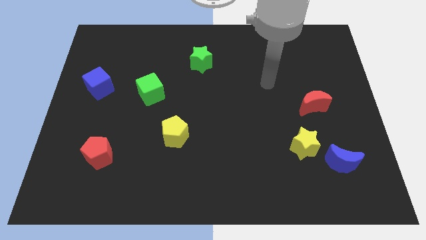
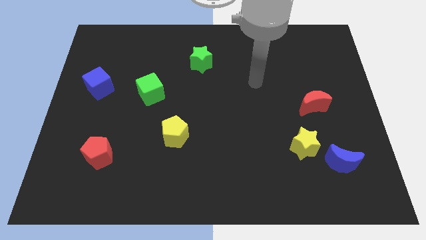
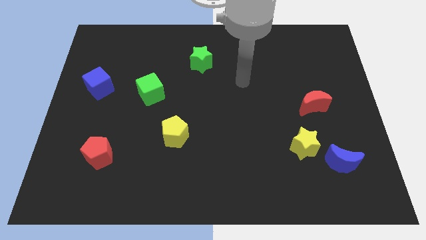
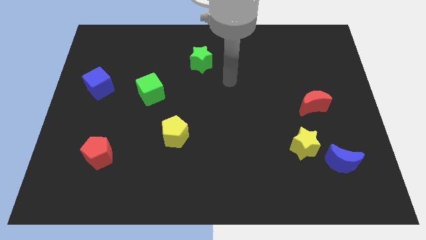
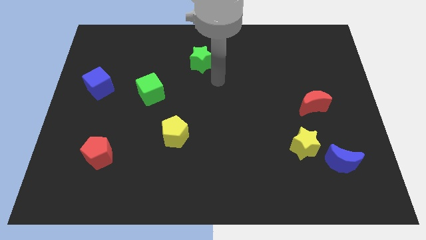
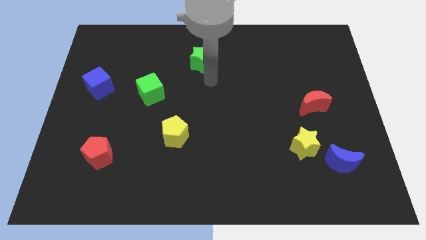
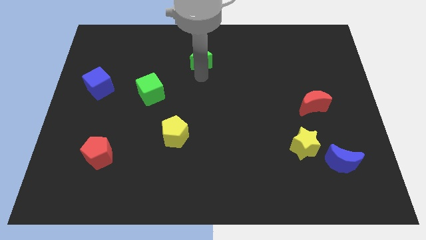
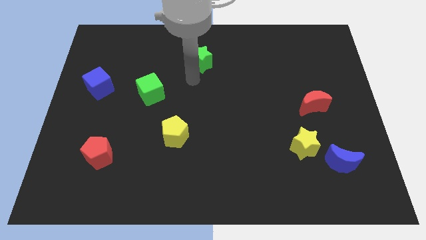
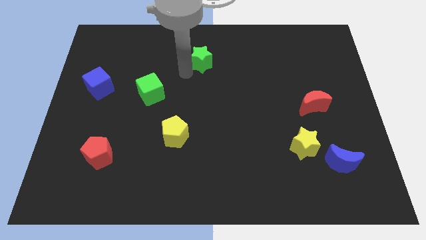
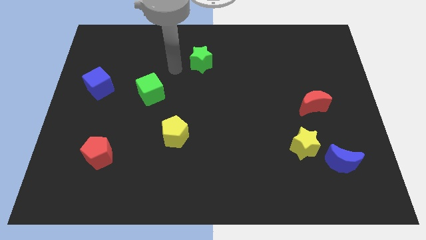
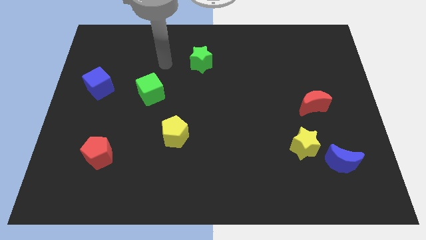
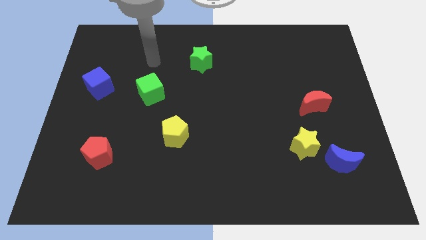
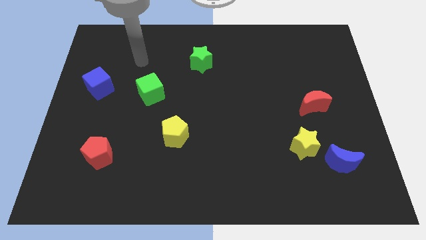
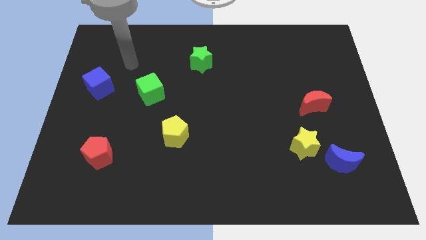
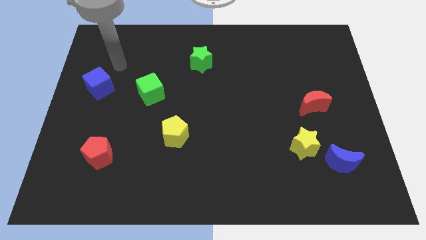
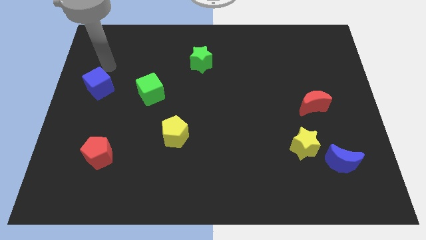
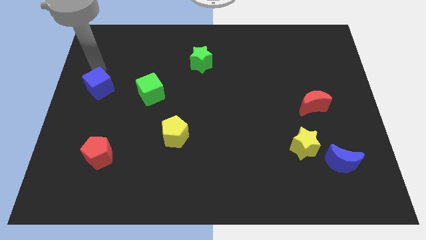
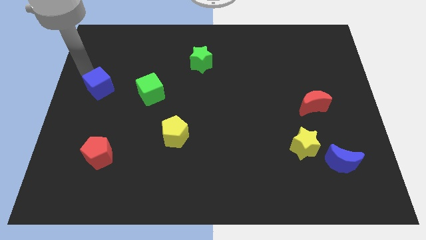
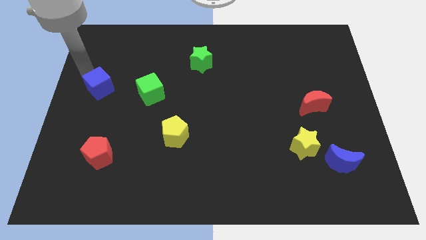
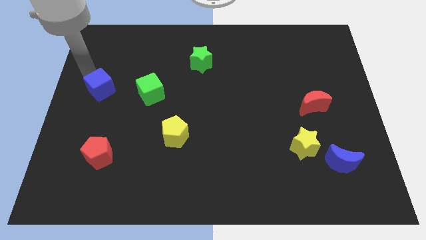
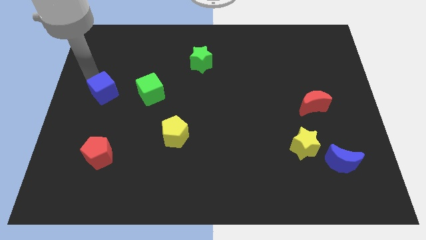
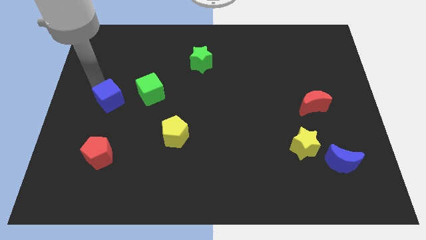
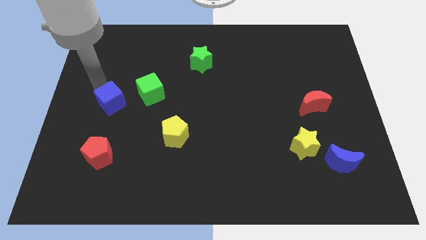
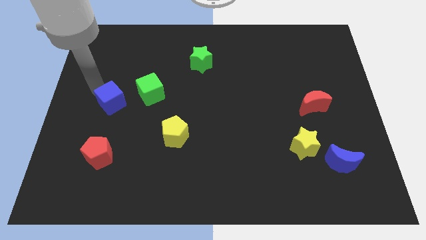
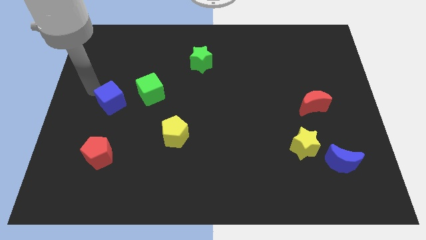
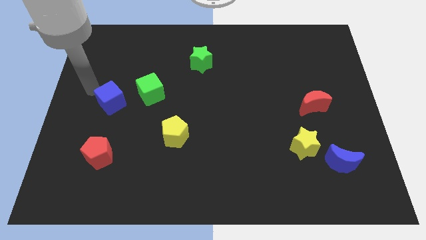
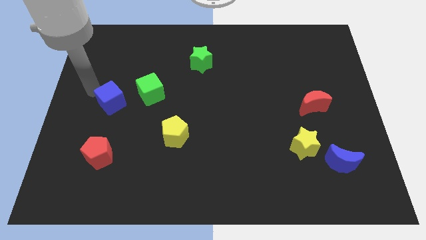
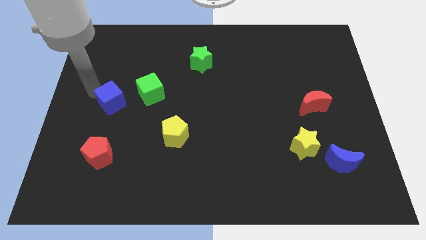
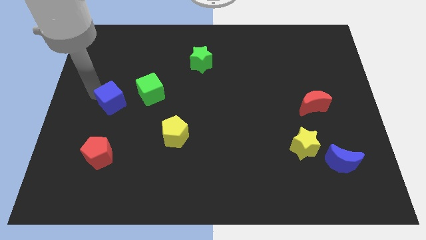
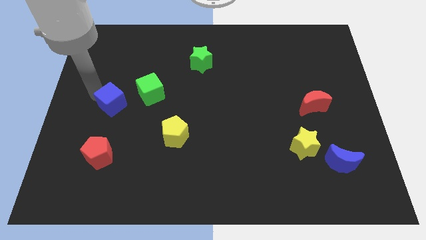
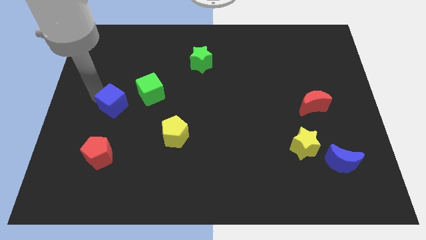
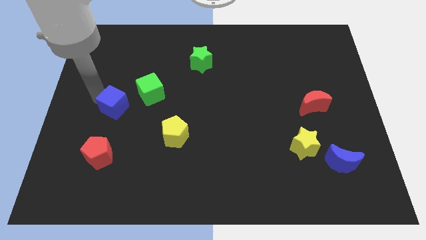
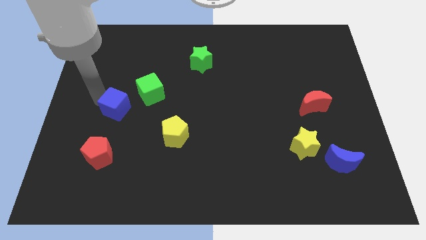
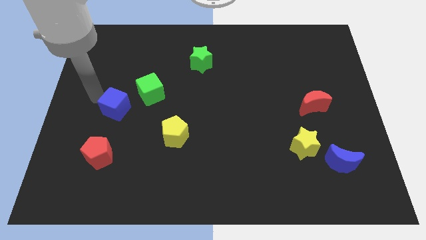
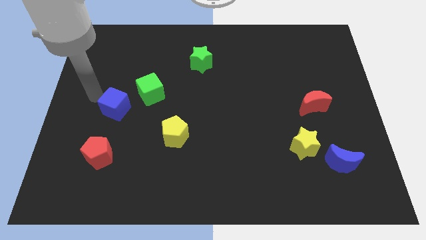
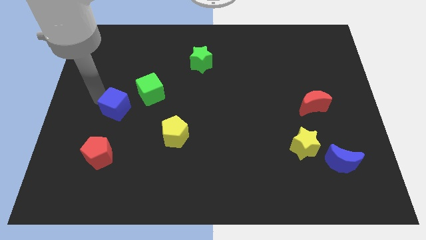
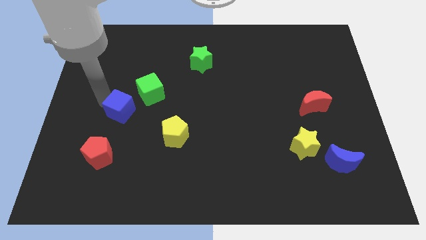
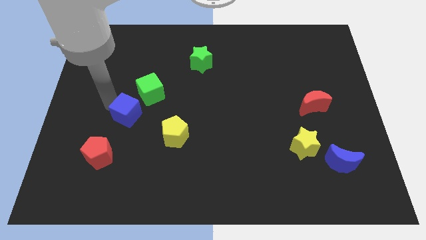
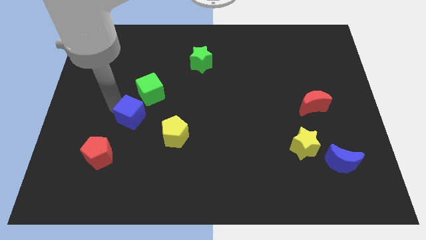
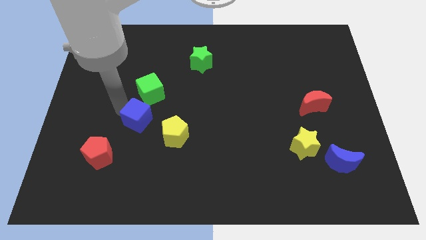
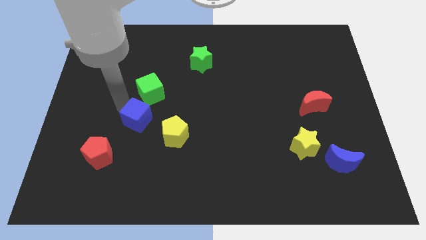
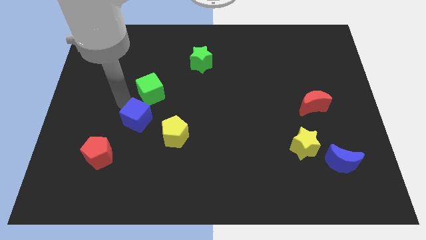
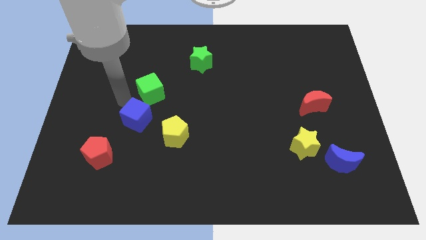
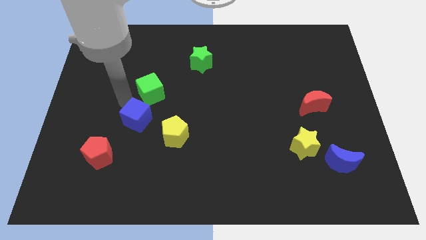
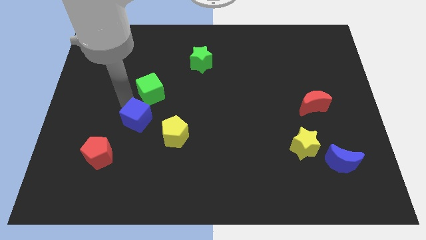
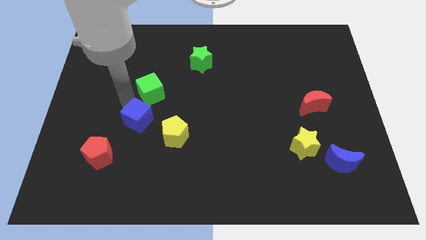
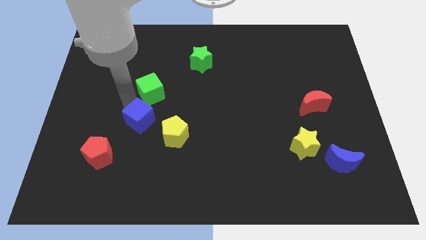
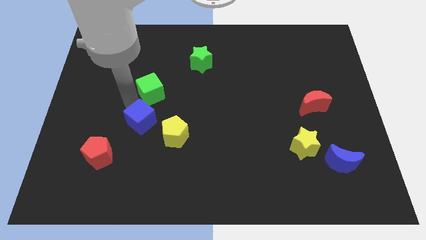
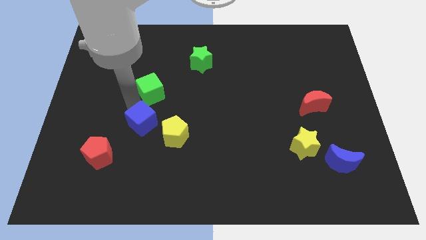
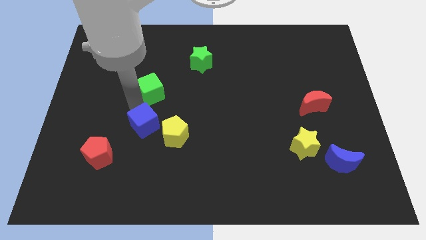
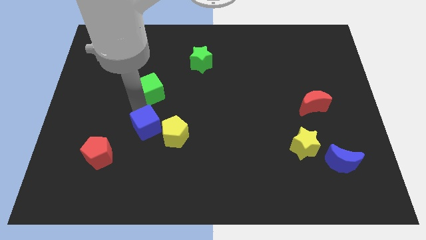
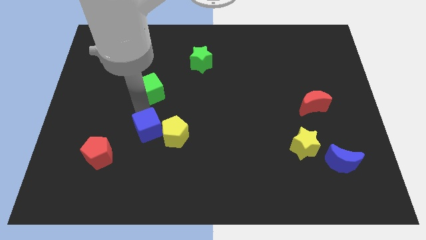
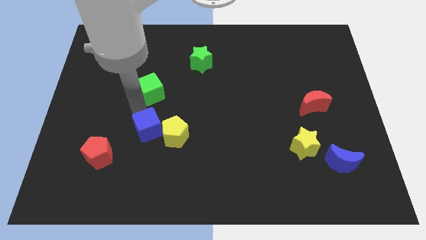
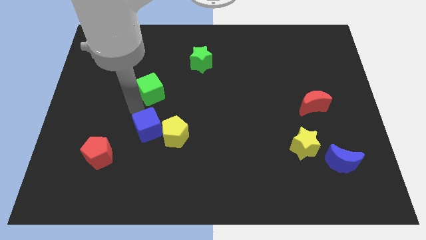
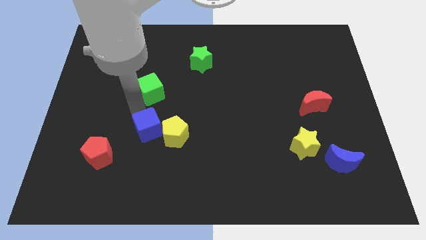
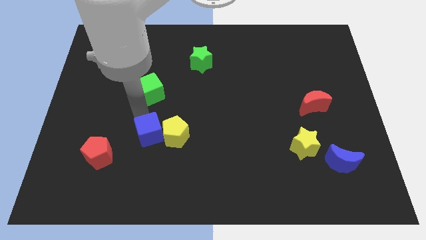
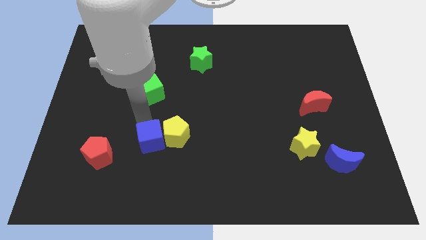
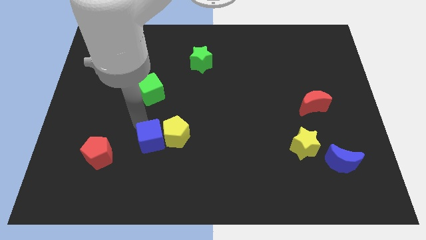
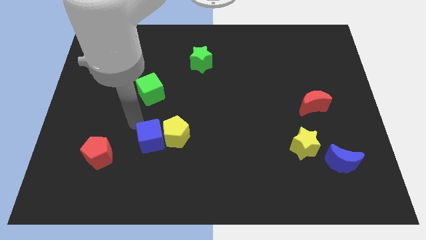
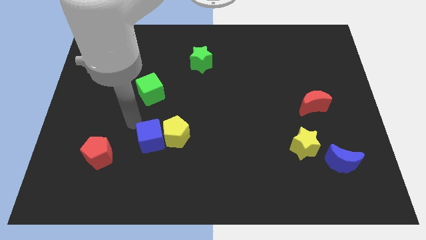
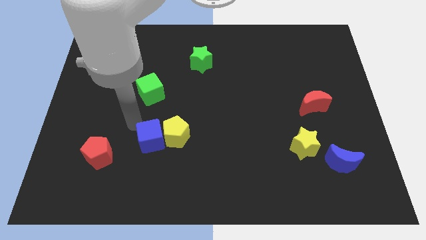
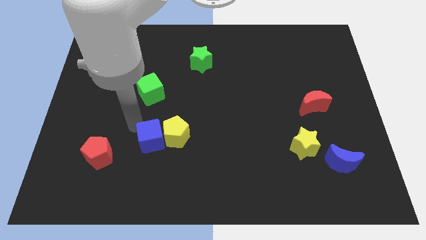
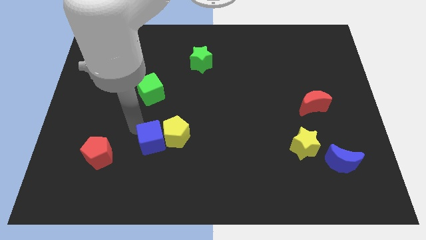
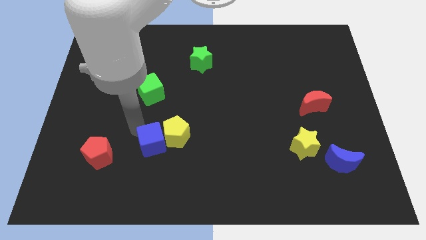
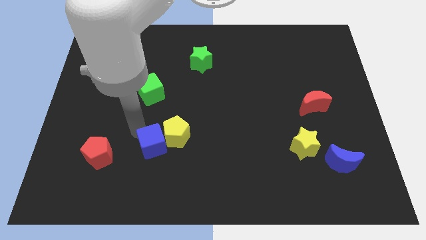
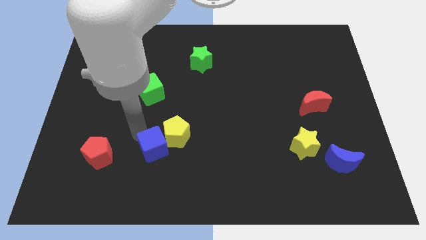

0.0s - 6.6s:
put the blue cube below the yellow pentagon
